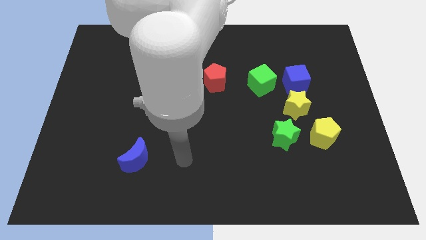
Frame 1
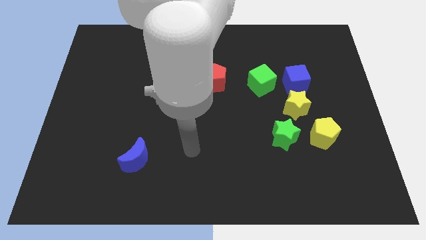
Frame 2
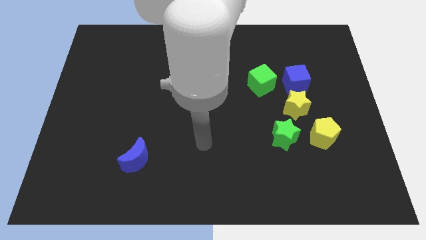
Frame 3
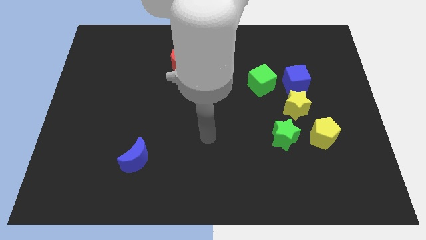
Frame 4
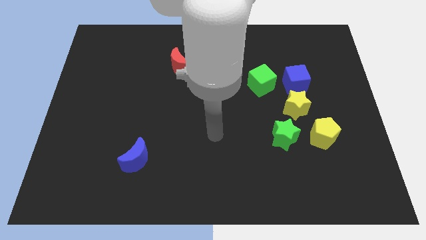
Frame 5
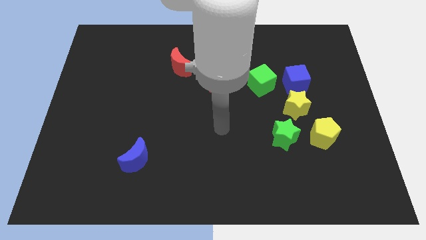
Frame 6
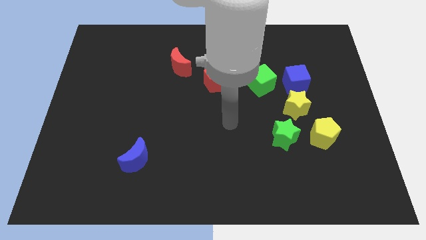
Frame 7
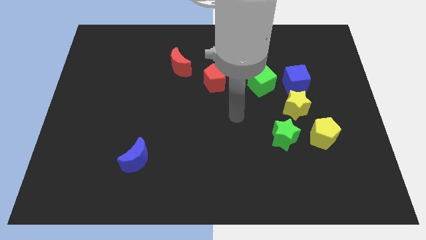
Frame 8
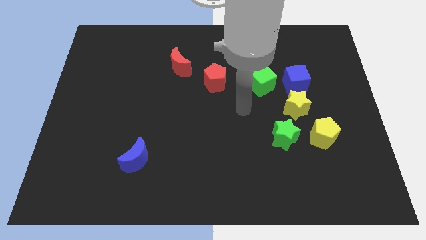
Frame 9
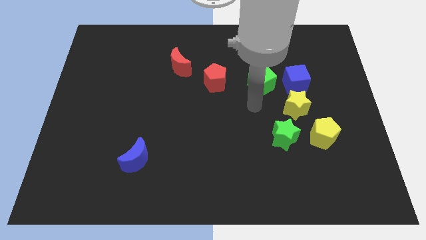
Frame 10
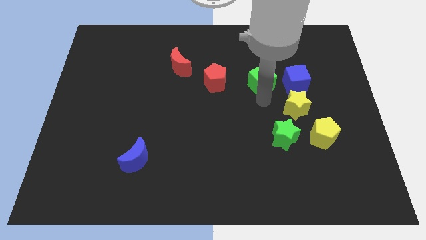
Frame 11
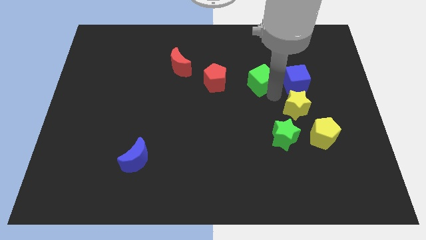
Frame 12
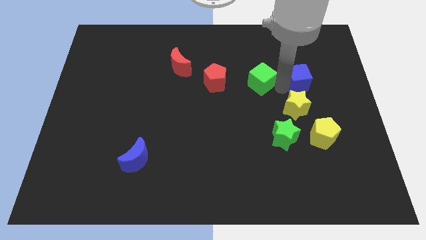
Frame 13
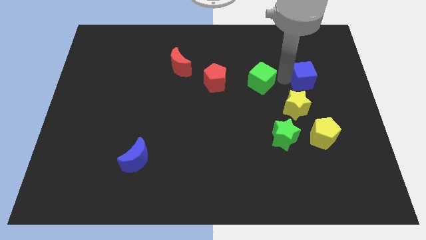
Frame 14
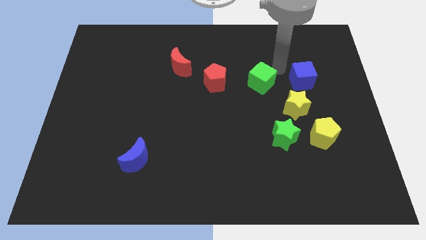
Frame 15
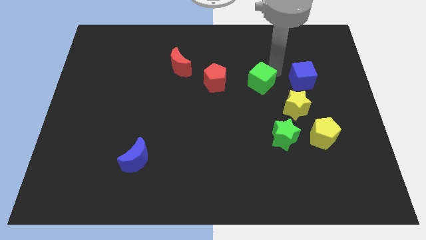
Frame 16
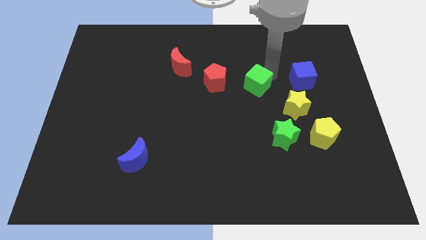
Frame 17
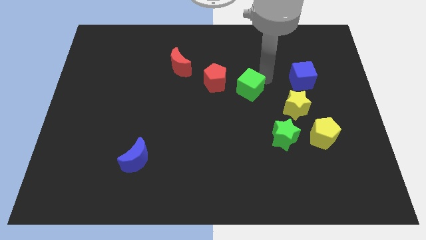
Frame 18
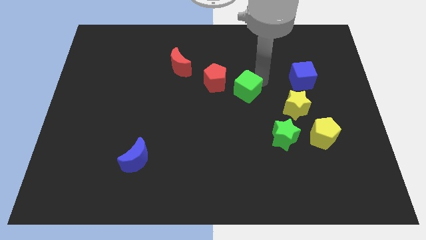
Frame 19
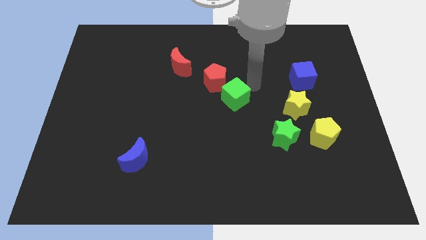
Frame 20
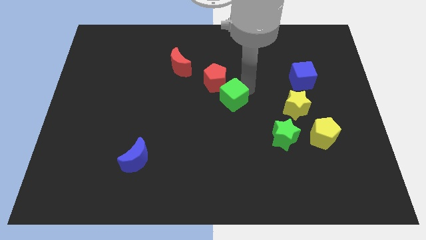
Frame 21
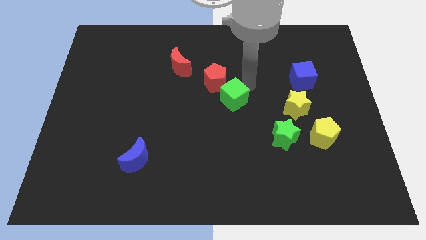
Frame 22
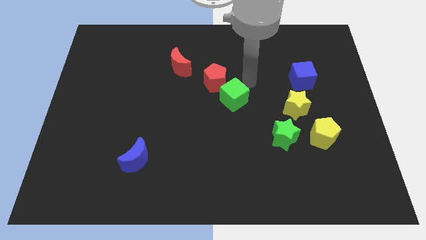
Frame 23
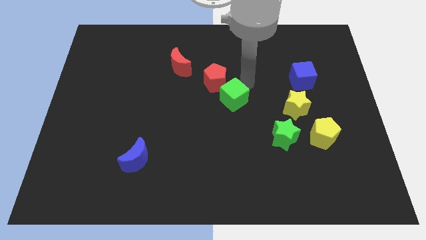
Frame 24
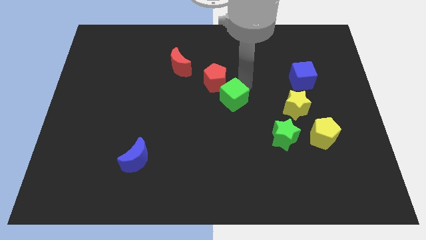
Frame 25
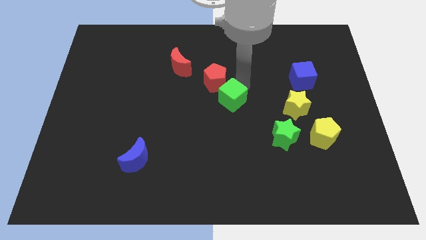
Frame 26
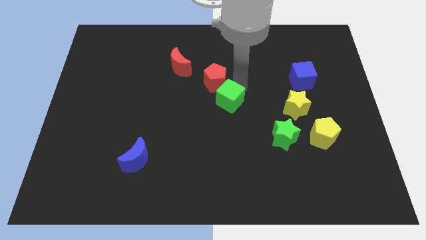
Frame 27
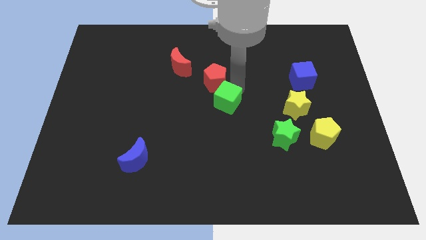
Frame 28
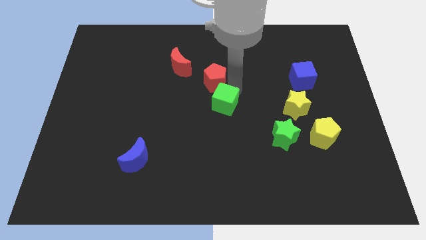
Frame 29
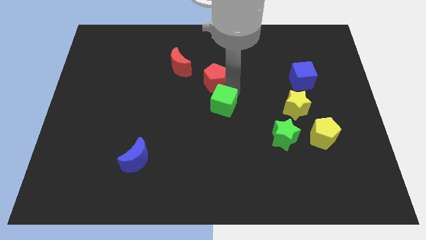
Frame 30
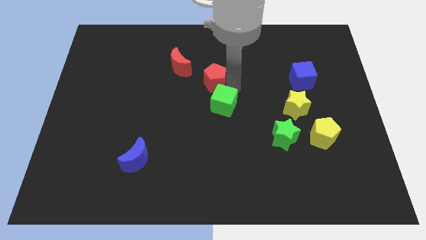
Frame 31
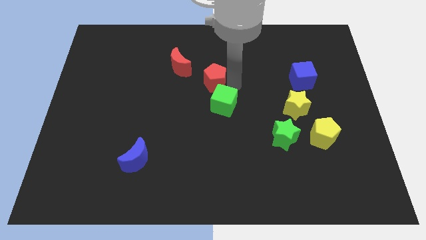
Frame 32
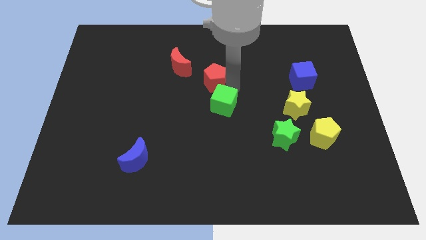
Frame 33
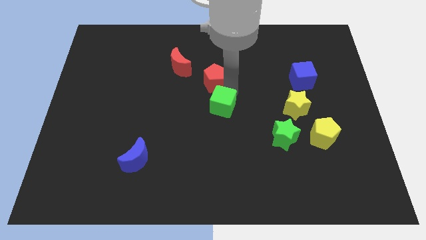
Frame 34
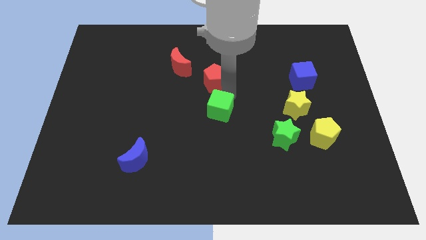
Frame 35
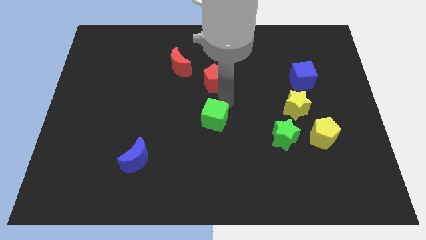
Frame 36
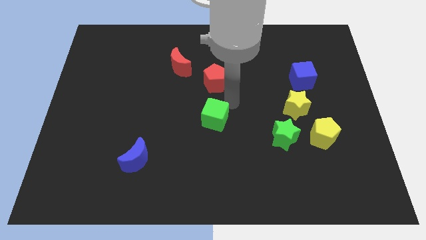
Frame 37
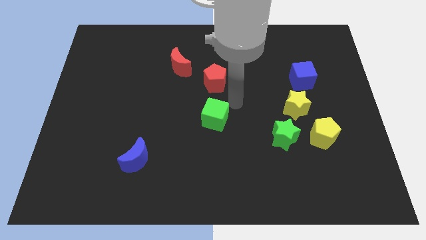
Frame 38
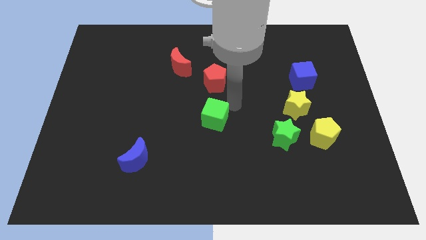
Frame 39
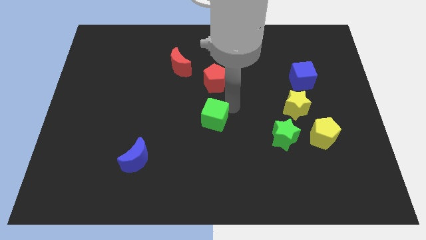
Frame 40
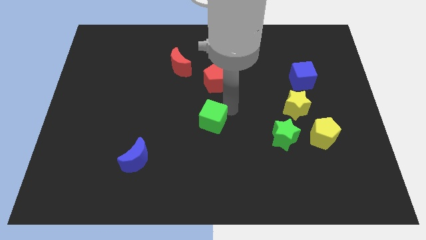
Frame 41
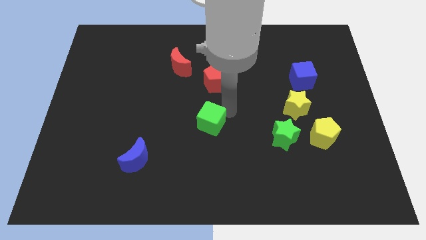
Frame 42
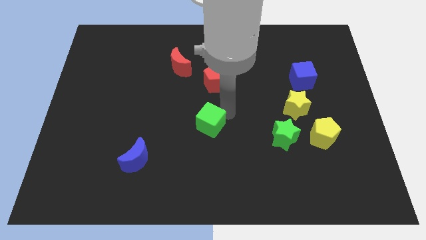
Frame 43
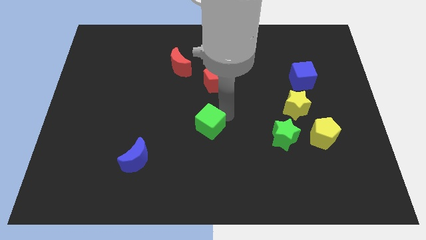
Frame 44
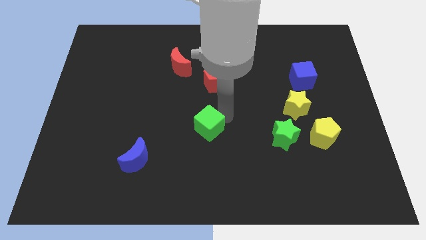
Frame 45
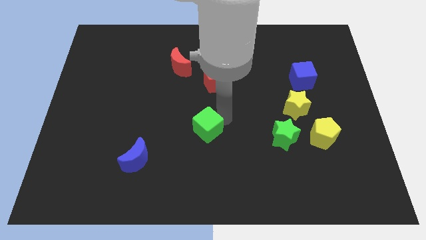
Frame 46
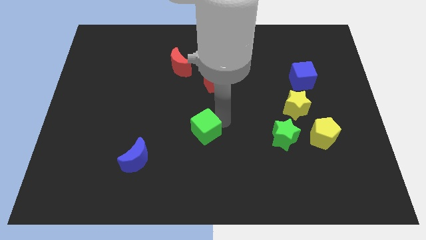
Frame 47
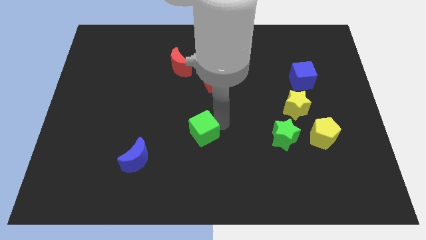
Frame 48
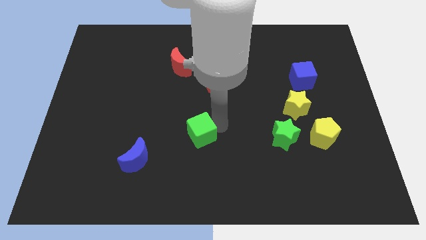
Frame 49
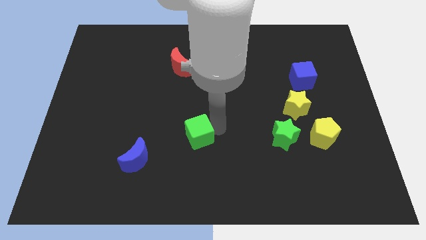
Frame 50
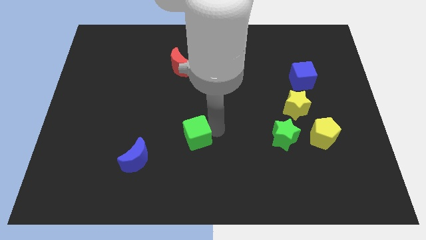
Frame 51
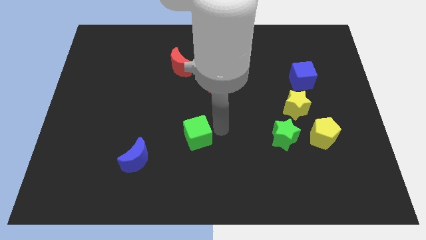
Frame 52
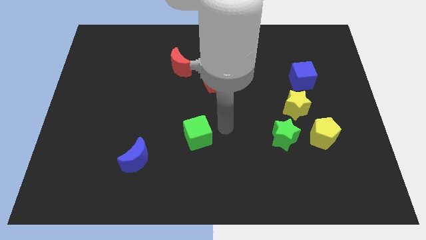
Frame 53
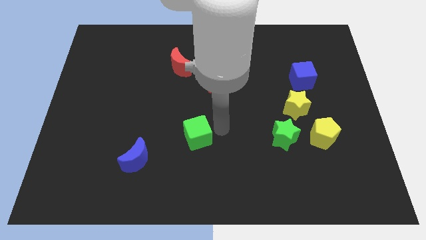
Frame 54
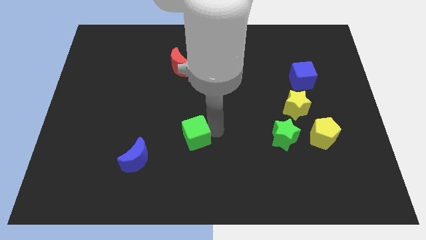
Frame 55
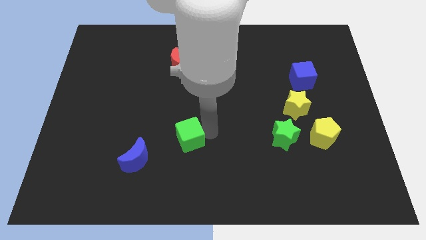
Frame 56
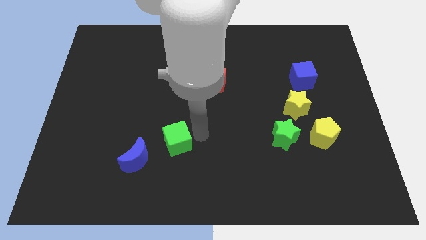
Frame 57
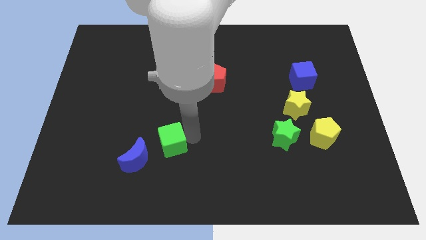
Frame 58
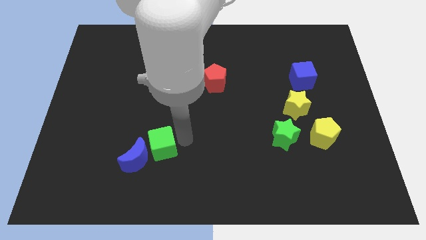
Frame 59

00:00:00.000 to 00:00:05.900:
slide the green cube close to the blue moon

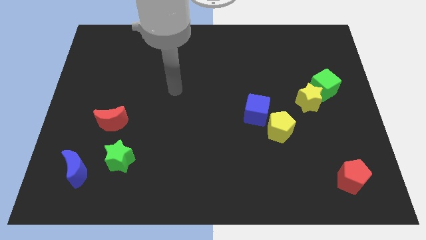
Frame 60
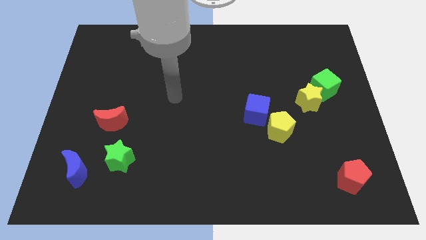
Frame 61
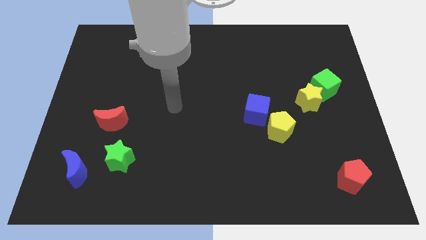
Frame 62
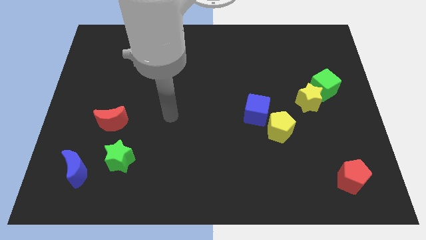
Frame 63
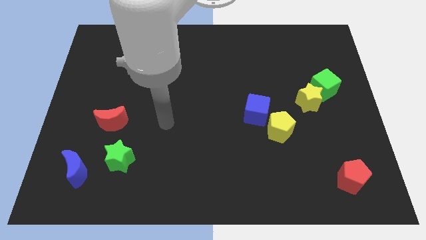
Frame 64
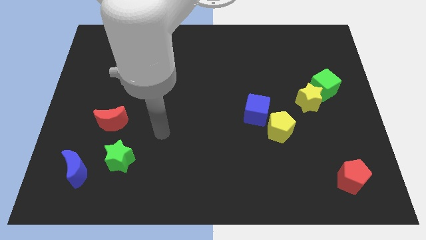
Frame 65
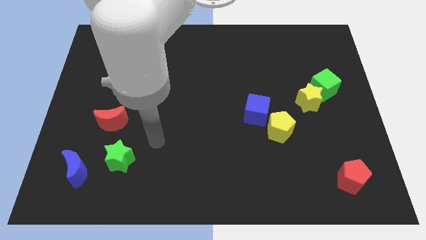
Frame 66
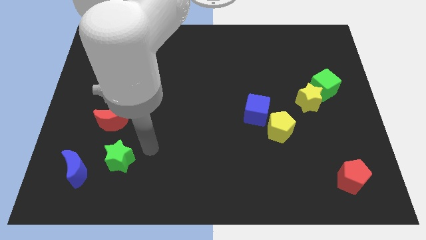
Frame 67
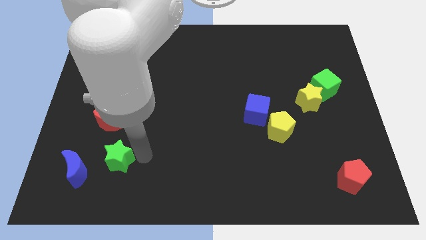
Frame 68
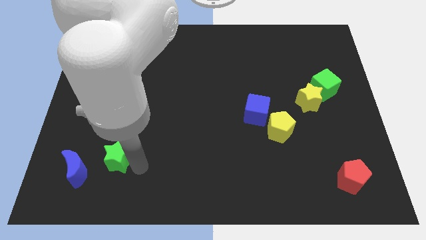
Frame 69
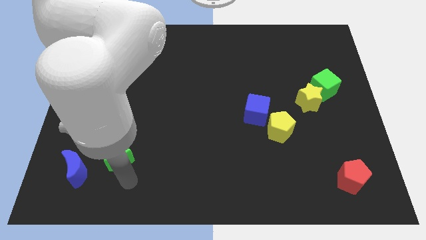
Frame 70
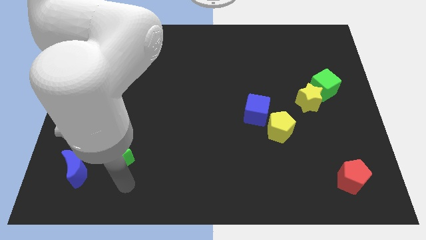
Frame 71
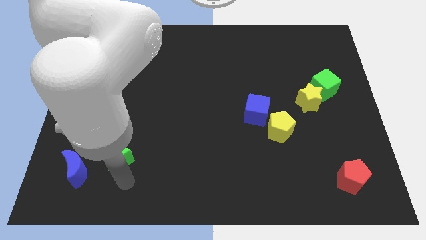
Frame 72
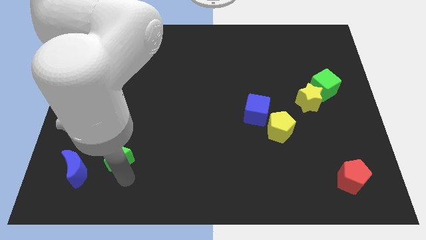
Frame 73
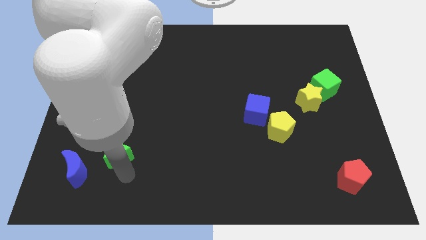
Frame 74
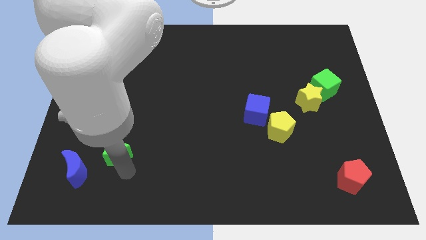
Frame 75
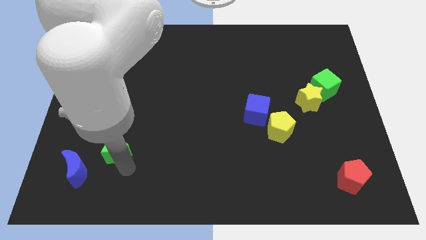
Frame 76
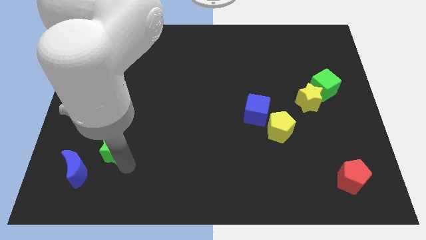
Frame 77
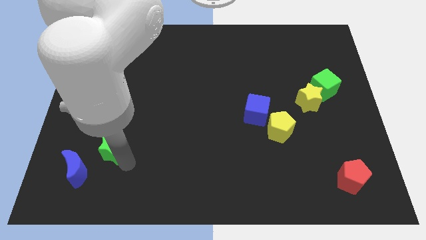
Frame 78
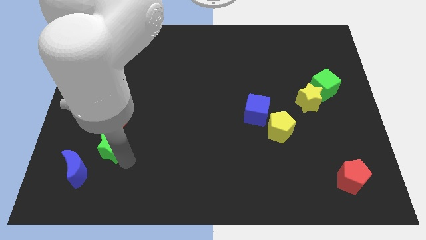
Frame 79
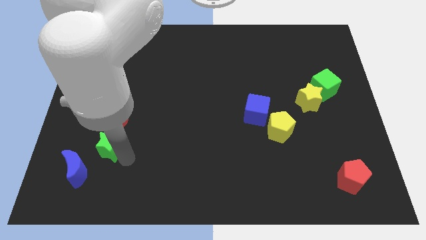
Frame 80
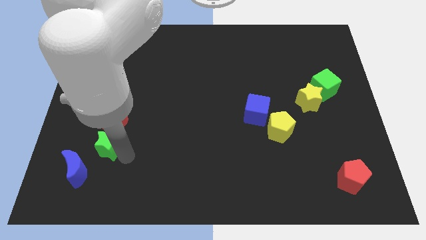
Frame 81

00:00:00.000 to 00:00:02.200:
push the green star next to the red moon
